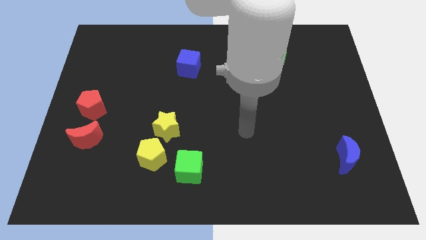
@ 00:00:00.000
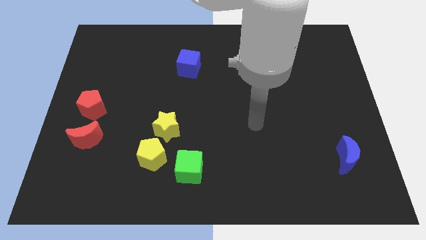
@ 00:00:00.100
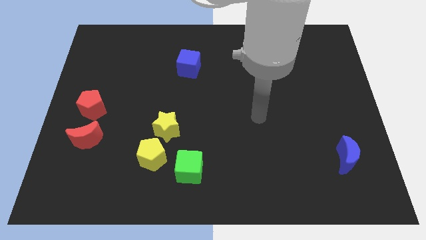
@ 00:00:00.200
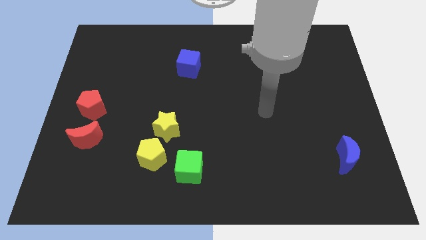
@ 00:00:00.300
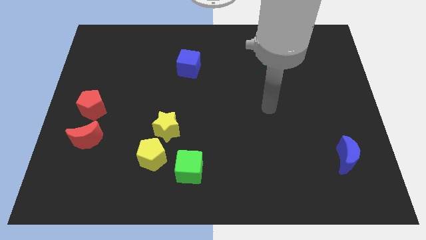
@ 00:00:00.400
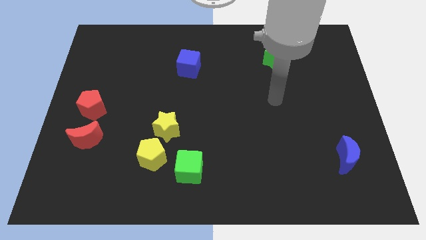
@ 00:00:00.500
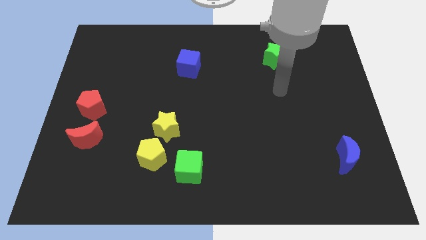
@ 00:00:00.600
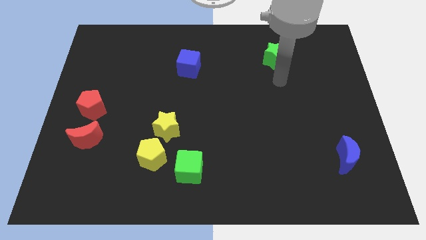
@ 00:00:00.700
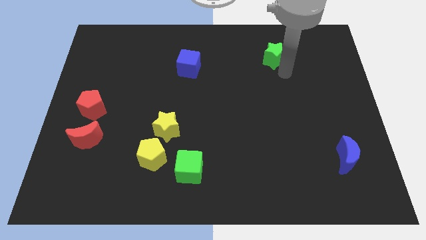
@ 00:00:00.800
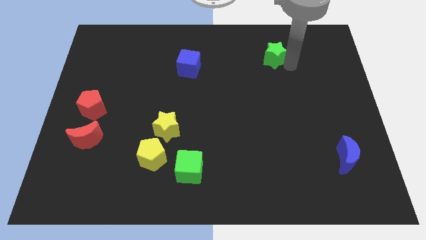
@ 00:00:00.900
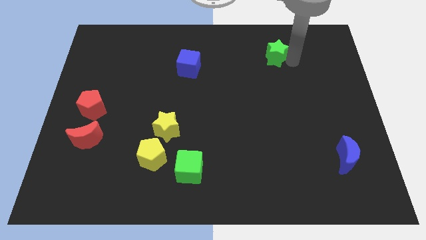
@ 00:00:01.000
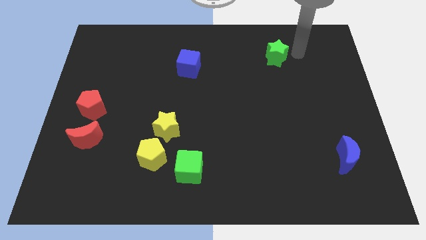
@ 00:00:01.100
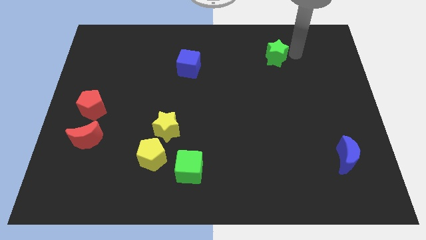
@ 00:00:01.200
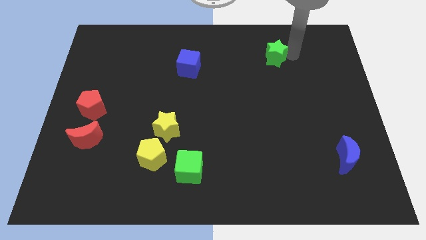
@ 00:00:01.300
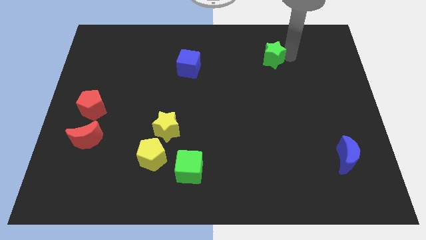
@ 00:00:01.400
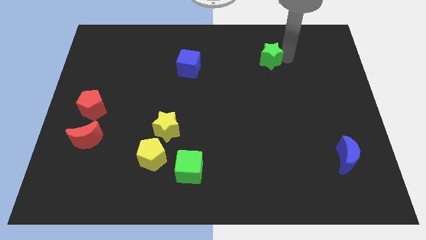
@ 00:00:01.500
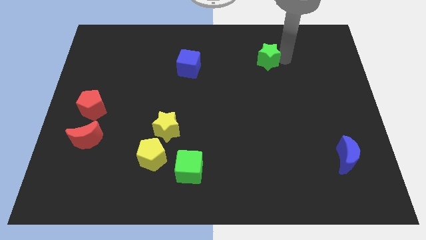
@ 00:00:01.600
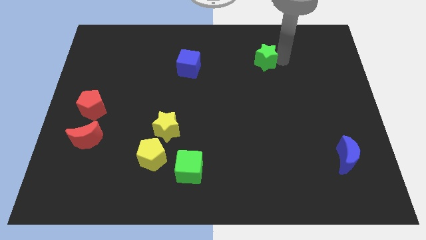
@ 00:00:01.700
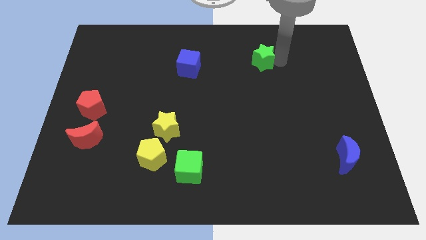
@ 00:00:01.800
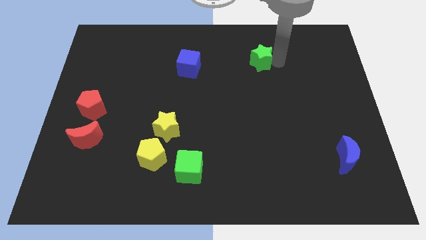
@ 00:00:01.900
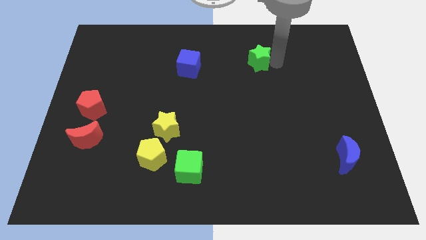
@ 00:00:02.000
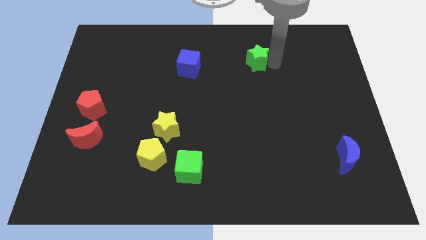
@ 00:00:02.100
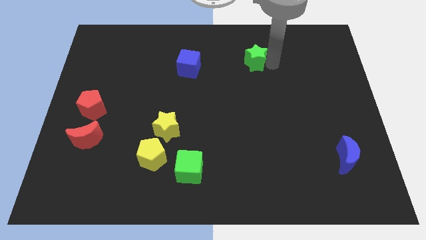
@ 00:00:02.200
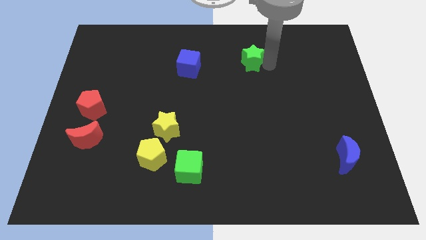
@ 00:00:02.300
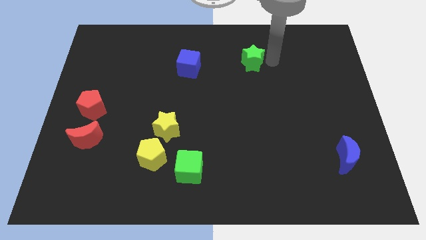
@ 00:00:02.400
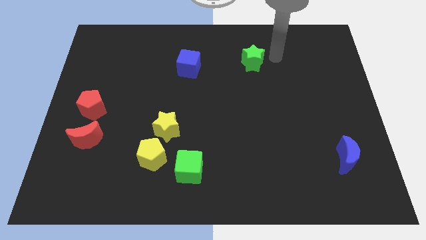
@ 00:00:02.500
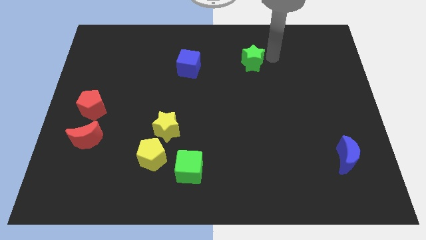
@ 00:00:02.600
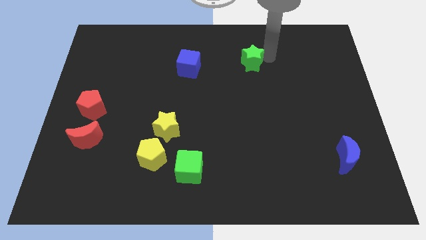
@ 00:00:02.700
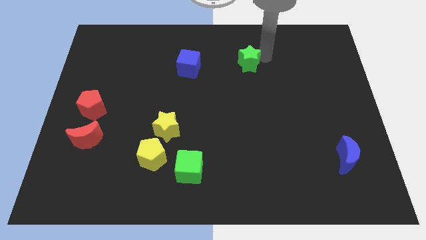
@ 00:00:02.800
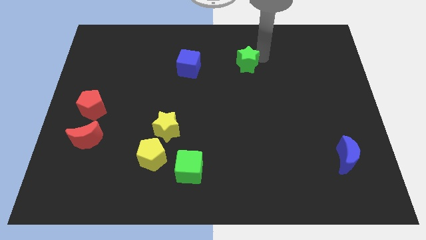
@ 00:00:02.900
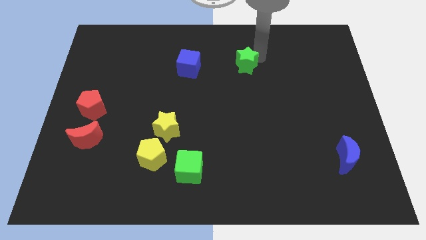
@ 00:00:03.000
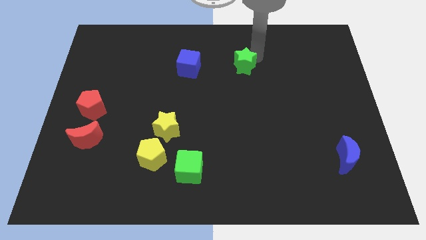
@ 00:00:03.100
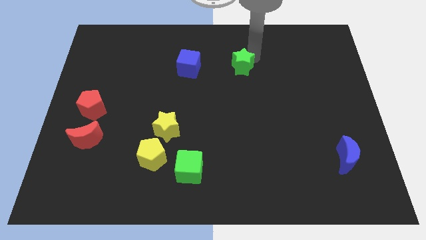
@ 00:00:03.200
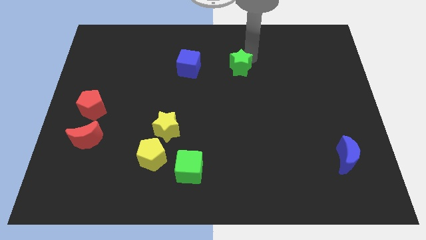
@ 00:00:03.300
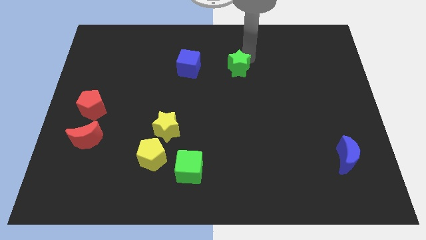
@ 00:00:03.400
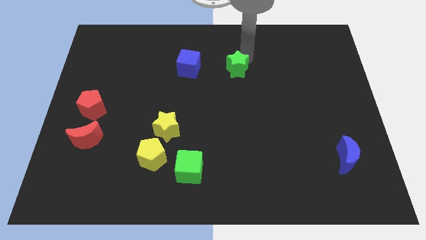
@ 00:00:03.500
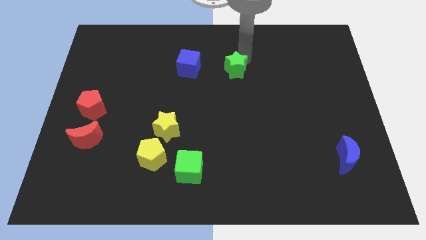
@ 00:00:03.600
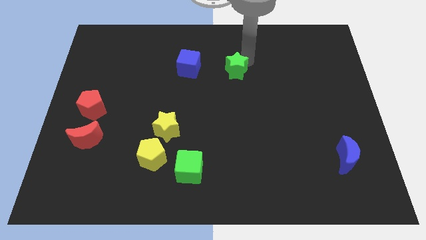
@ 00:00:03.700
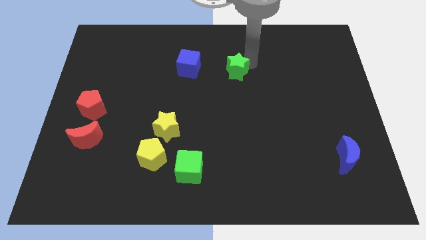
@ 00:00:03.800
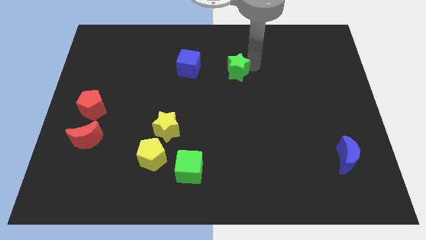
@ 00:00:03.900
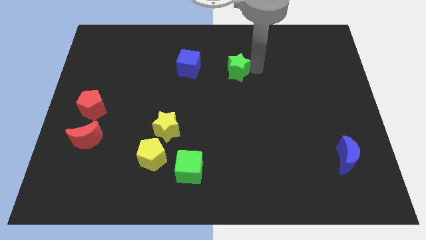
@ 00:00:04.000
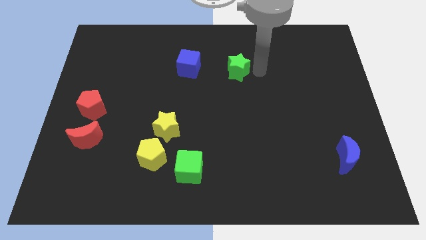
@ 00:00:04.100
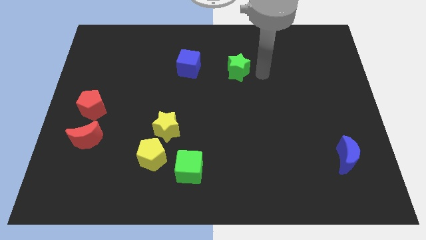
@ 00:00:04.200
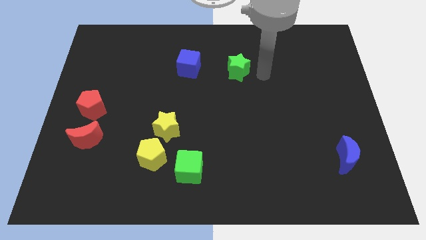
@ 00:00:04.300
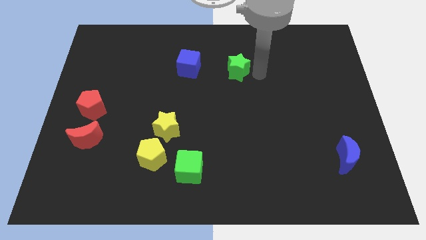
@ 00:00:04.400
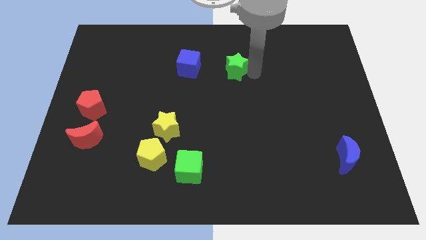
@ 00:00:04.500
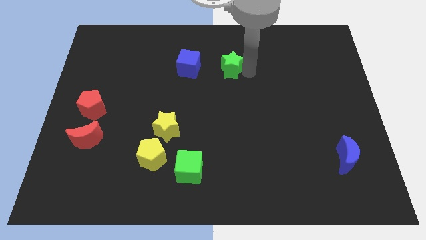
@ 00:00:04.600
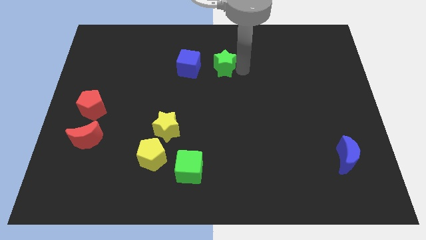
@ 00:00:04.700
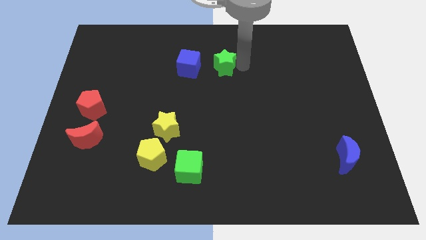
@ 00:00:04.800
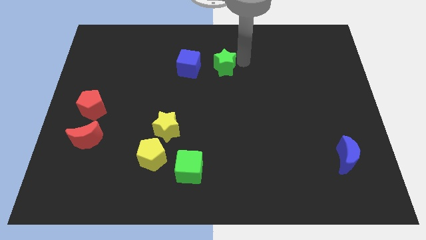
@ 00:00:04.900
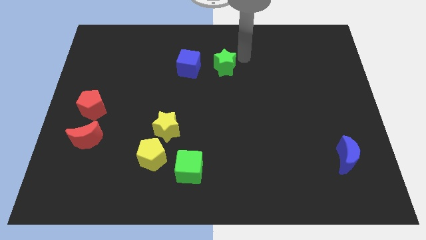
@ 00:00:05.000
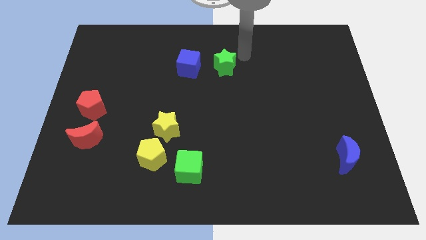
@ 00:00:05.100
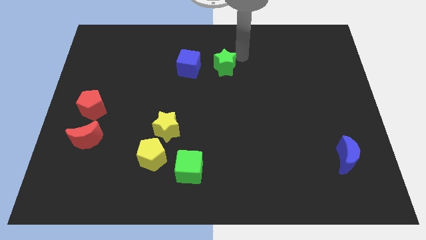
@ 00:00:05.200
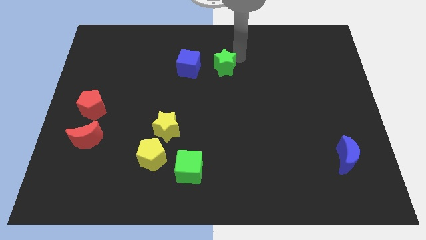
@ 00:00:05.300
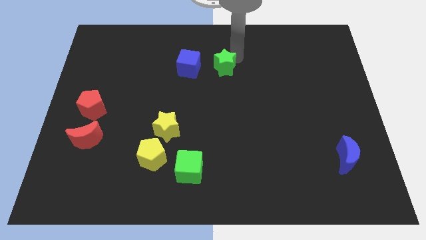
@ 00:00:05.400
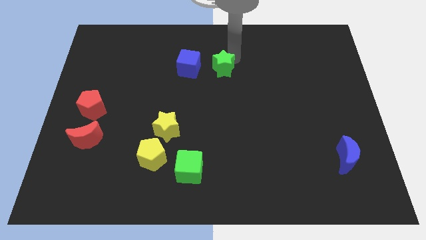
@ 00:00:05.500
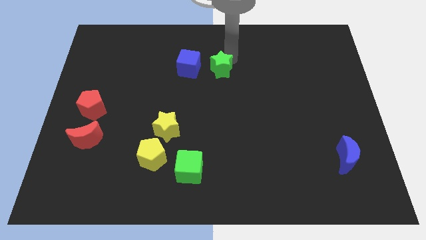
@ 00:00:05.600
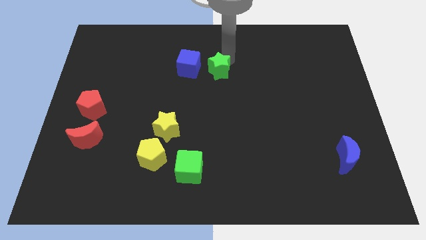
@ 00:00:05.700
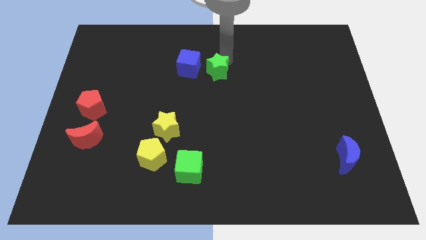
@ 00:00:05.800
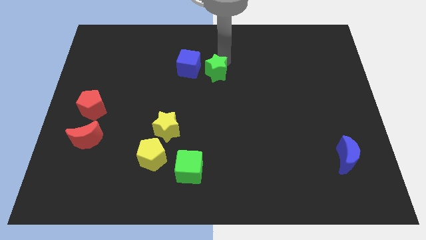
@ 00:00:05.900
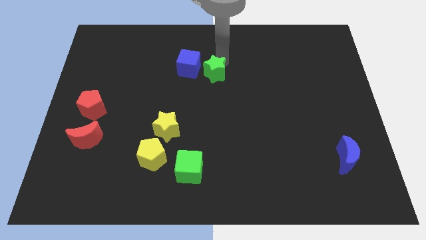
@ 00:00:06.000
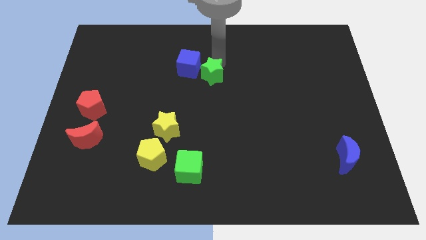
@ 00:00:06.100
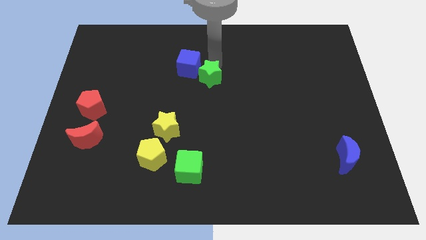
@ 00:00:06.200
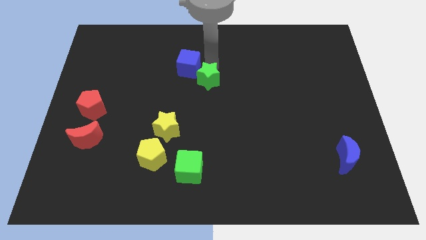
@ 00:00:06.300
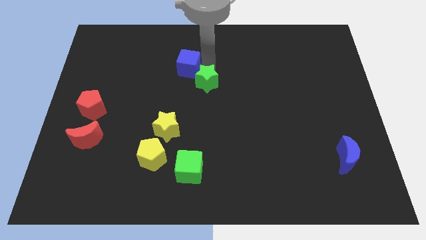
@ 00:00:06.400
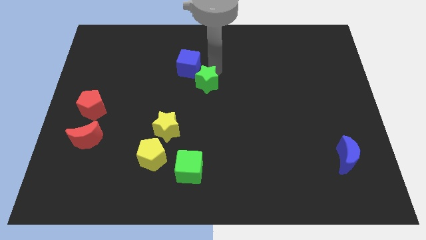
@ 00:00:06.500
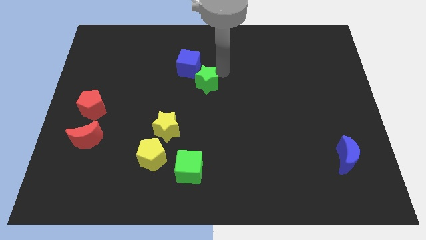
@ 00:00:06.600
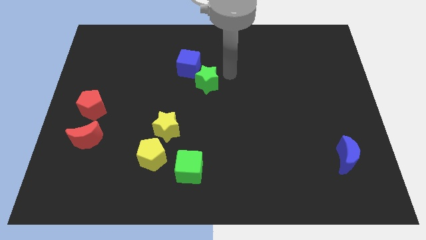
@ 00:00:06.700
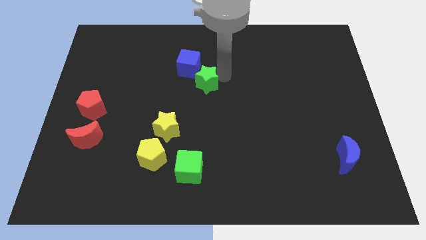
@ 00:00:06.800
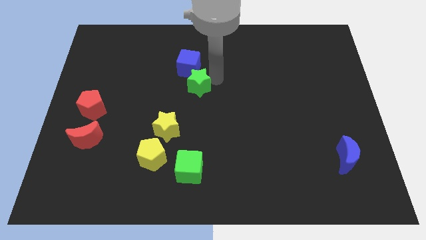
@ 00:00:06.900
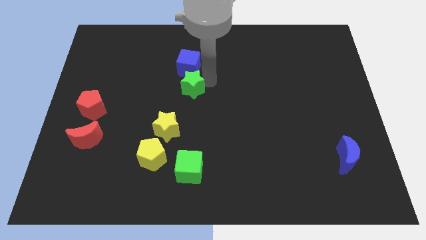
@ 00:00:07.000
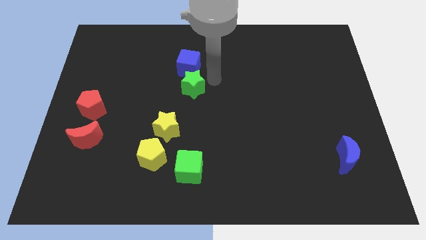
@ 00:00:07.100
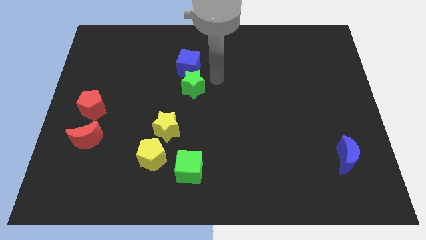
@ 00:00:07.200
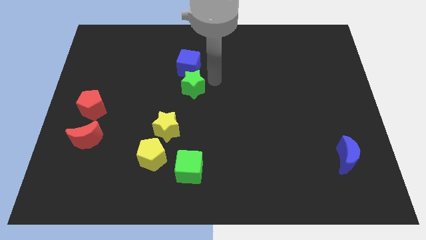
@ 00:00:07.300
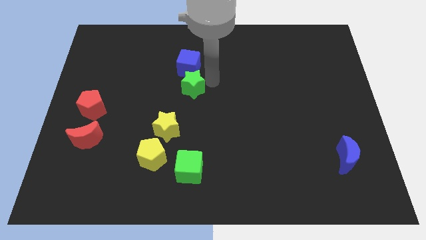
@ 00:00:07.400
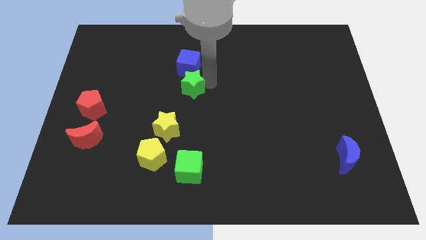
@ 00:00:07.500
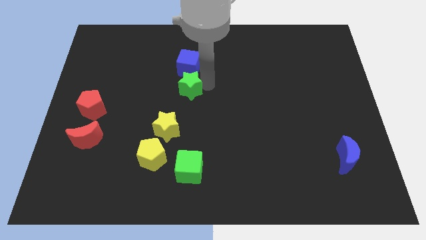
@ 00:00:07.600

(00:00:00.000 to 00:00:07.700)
move the green star to the top side of the yellow star
